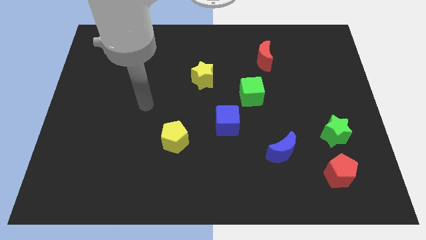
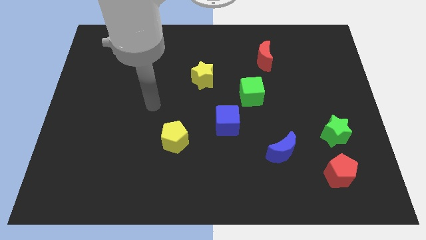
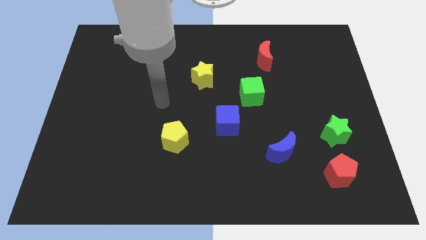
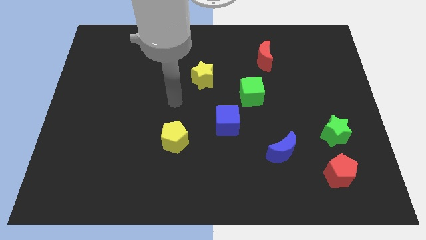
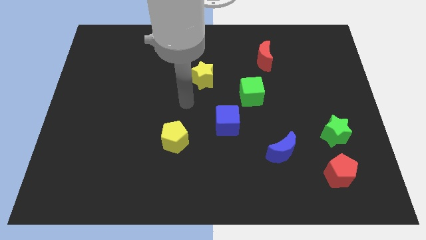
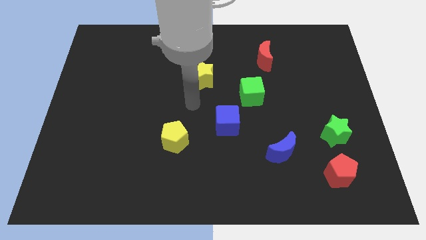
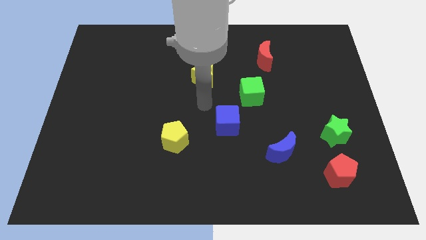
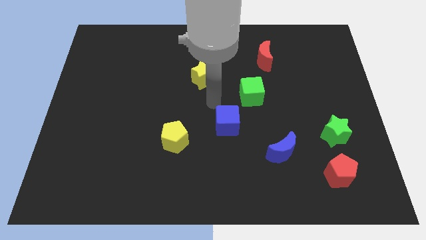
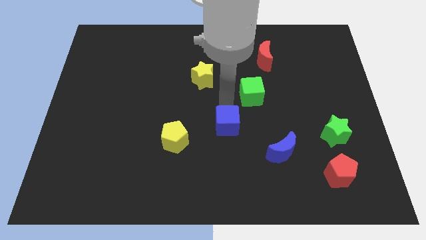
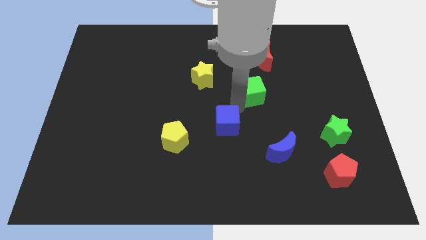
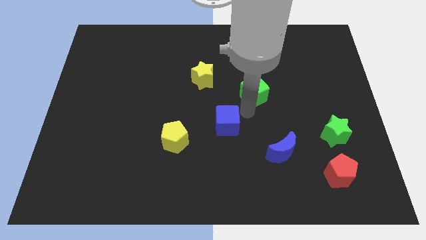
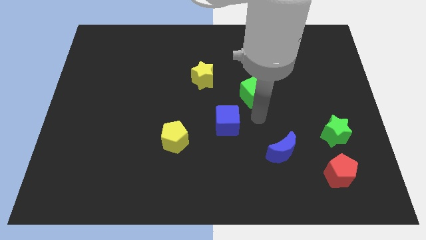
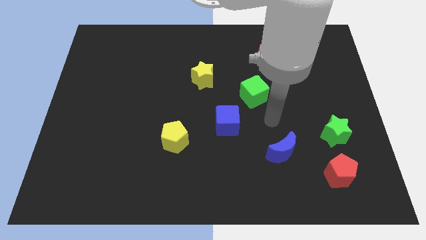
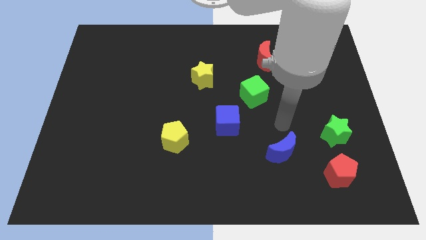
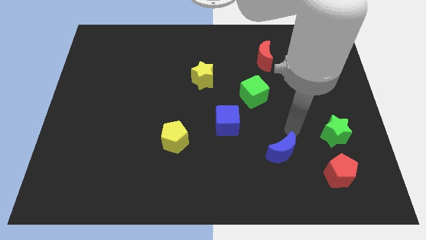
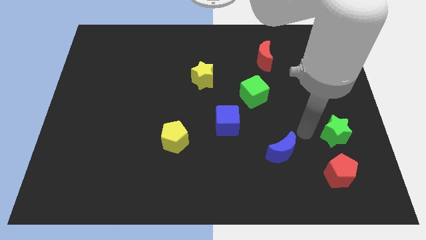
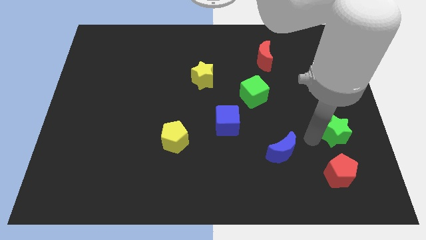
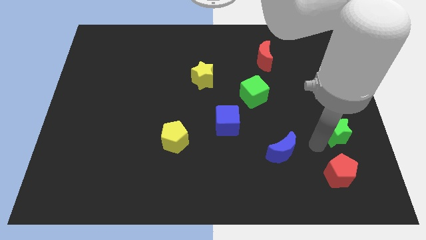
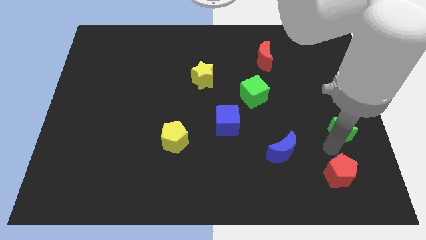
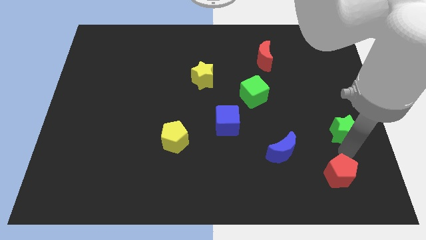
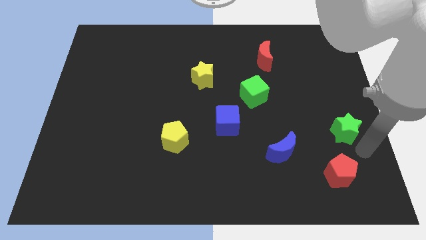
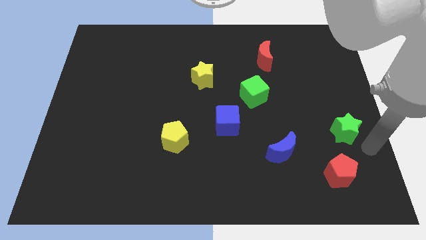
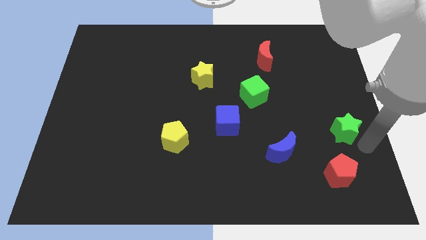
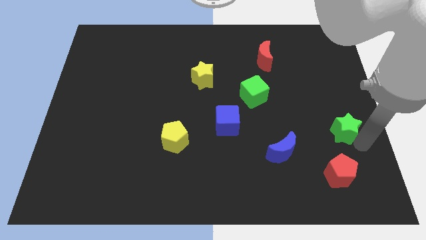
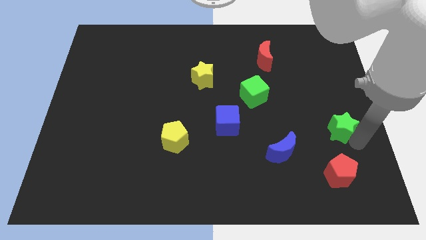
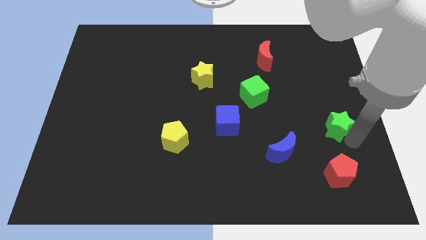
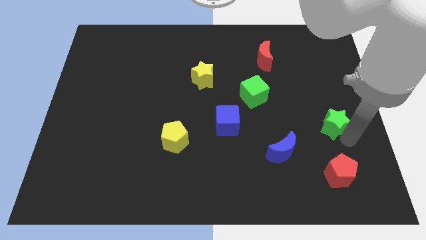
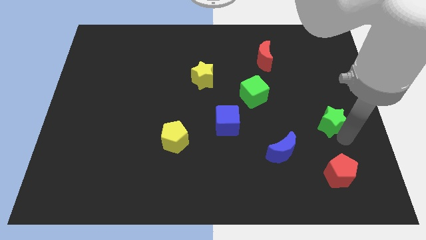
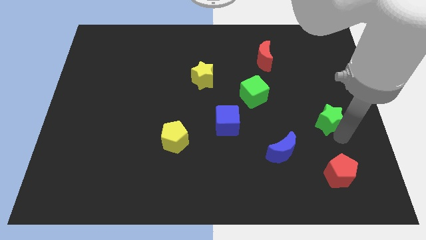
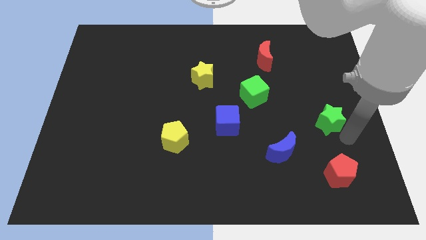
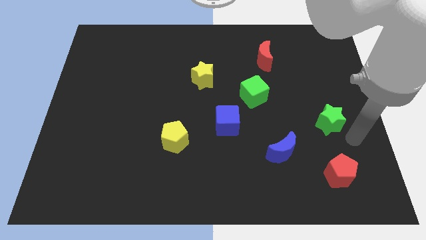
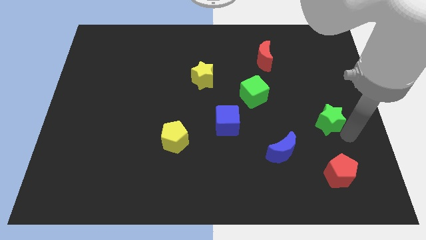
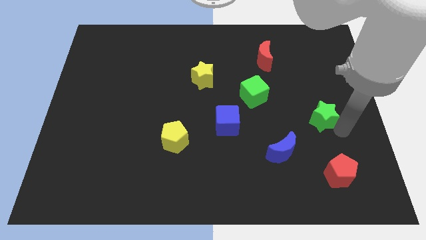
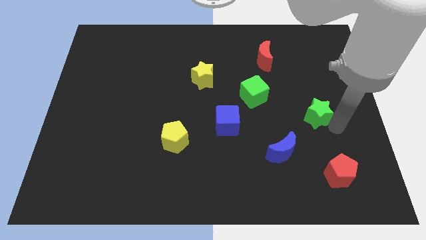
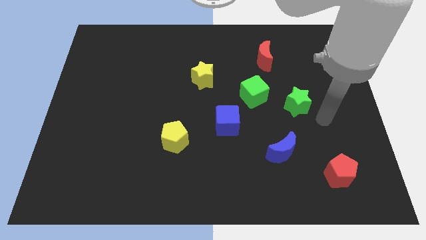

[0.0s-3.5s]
slightly move the green star diagonally up and left

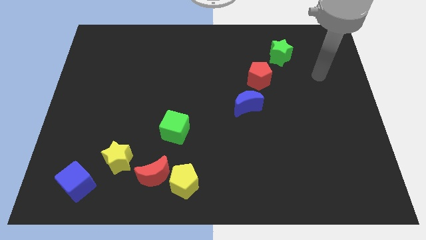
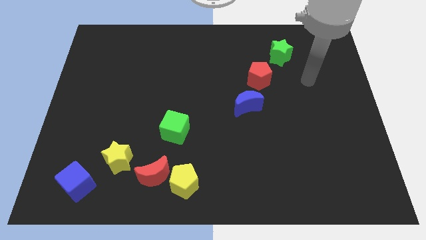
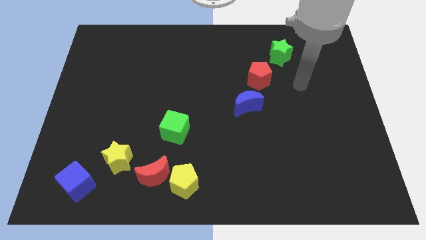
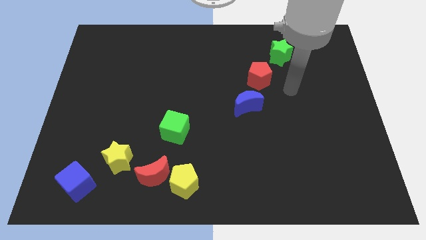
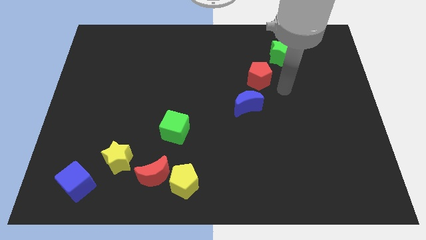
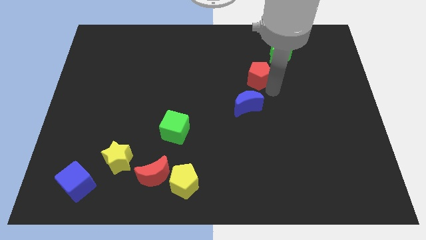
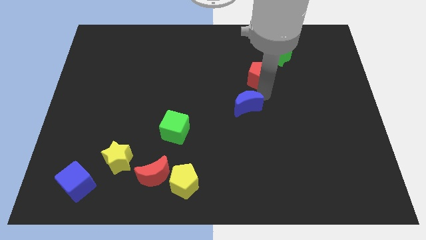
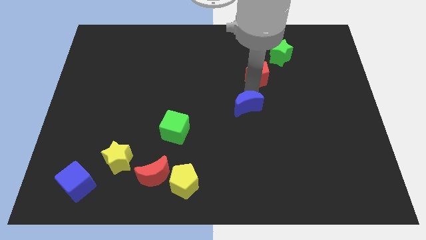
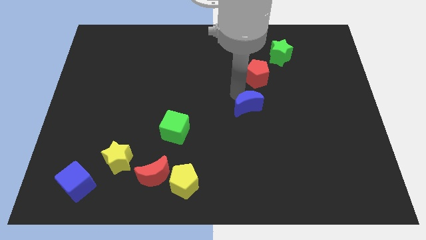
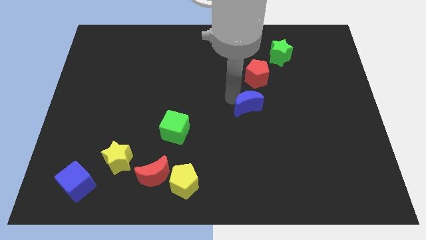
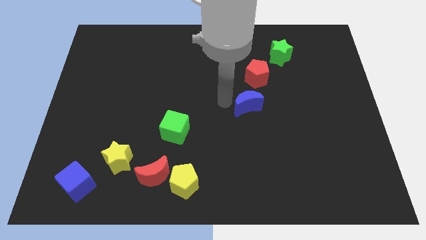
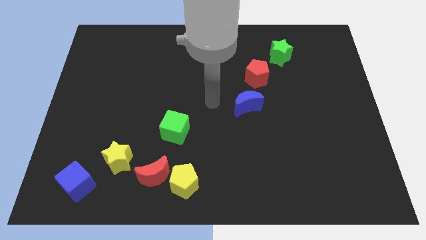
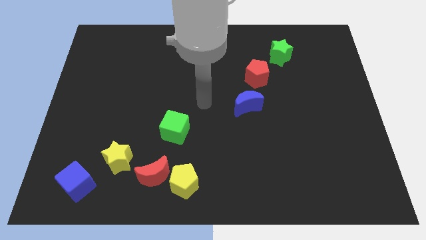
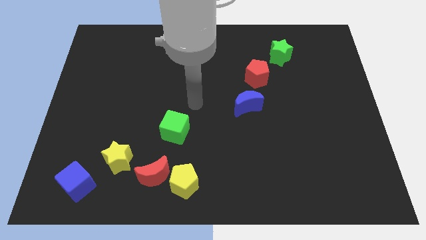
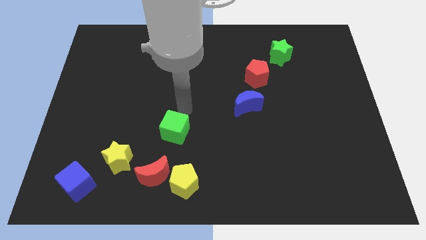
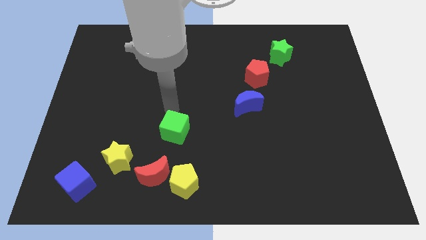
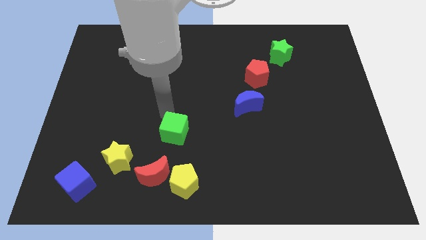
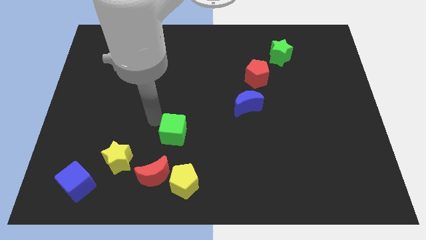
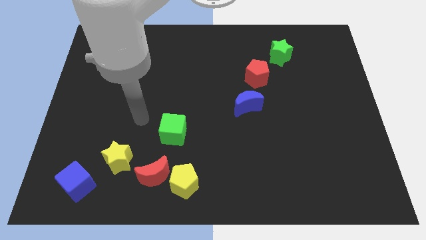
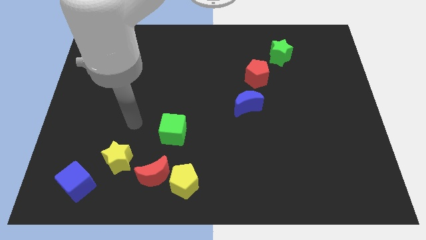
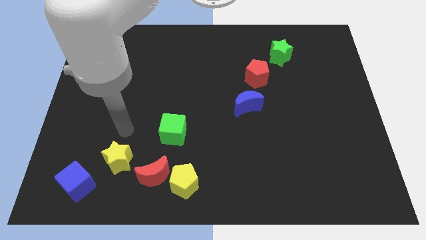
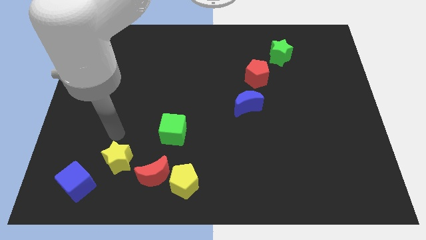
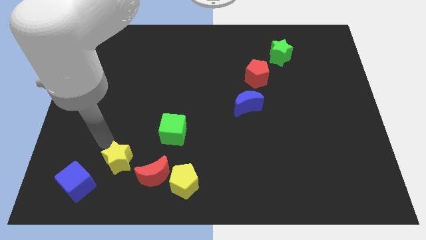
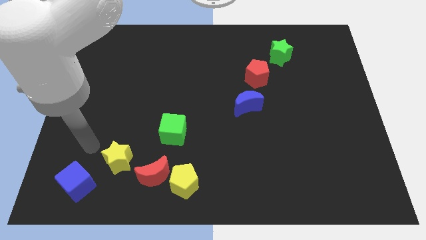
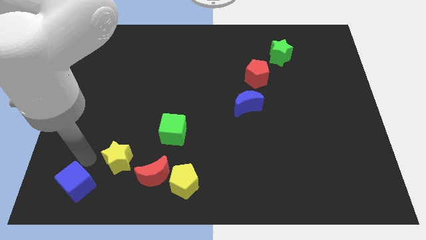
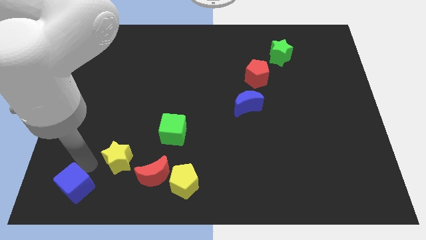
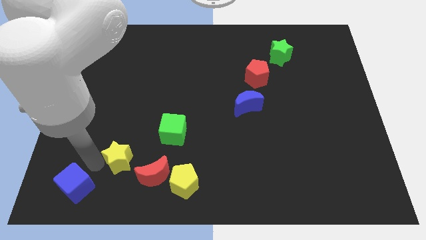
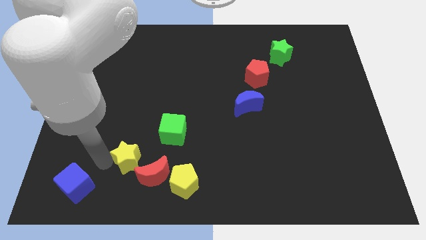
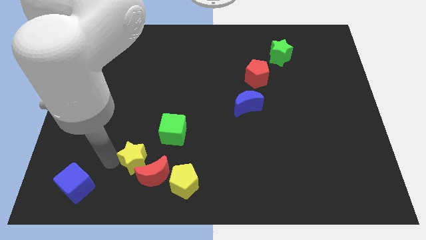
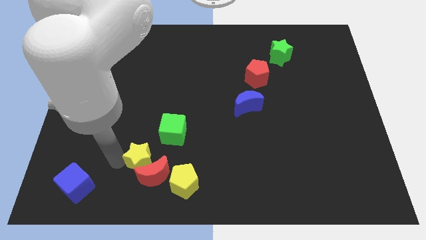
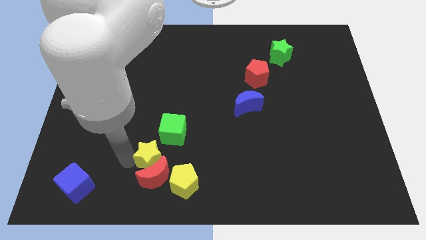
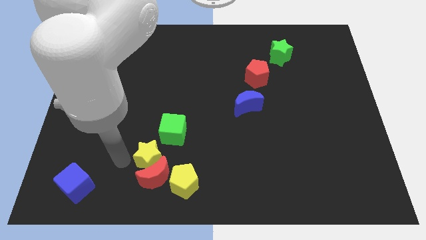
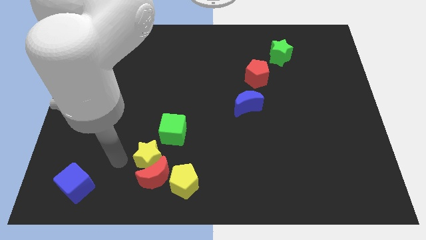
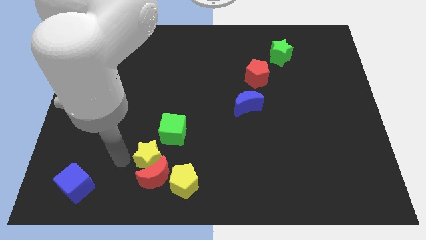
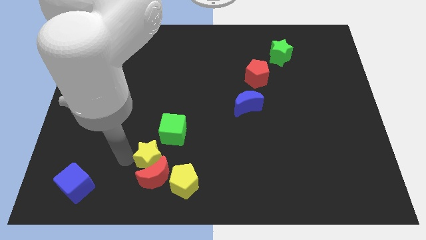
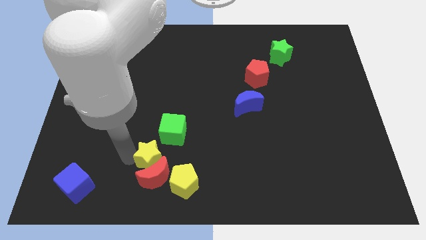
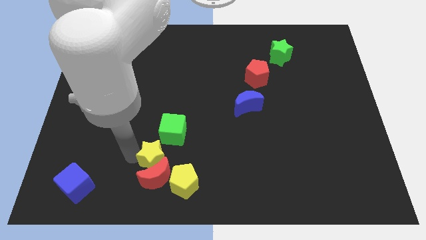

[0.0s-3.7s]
slide the yellow star somewhat right

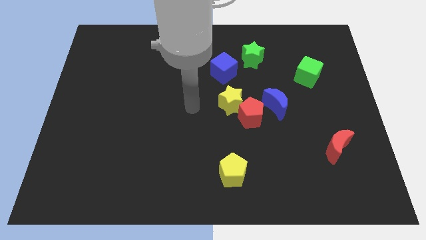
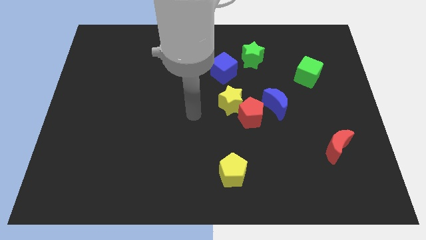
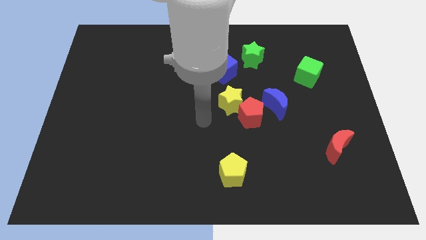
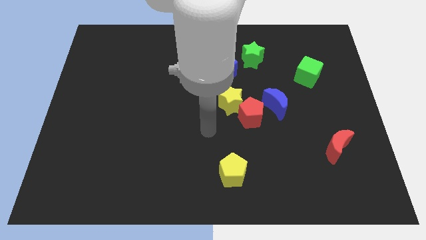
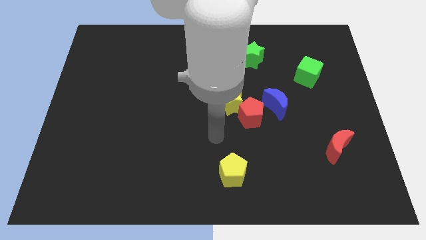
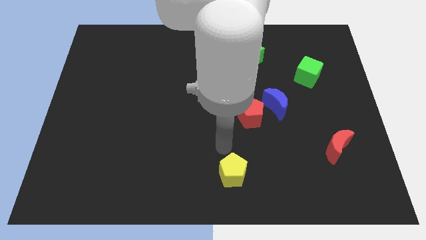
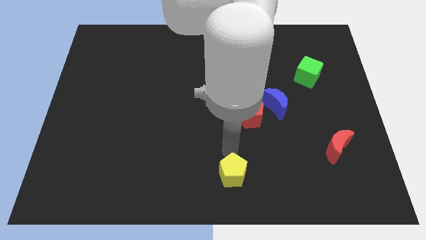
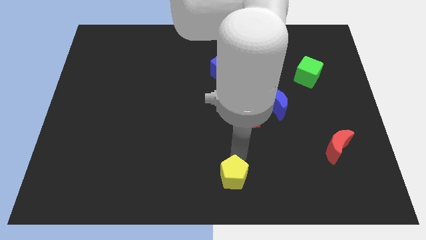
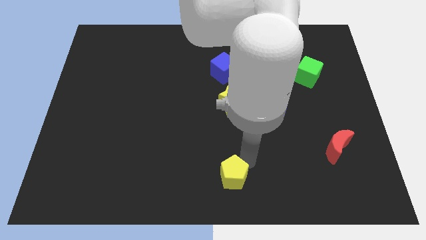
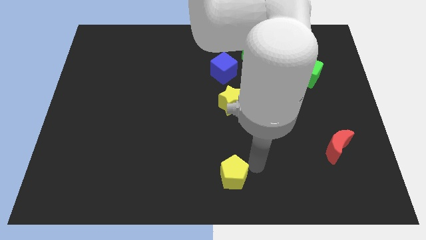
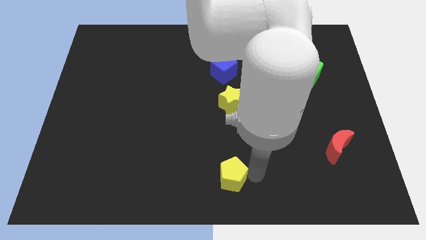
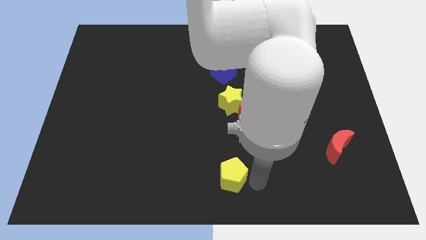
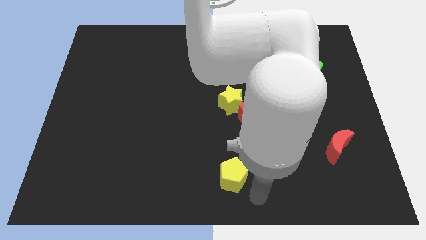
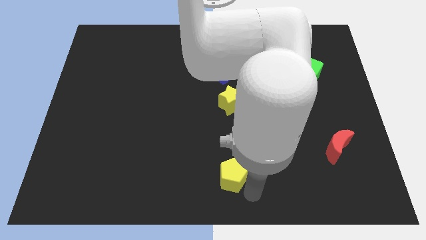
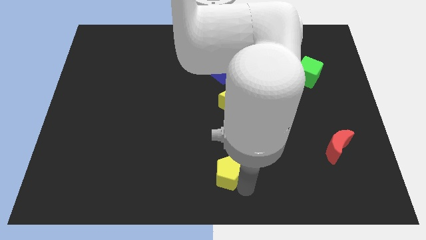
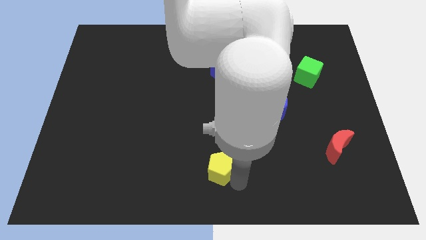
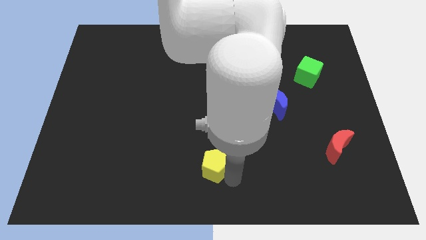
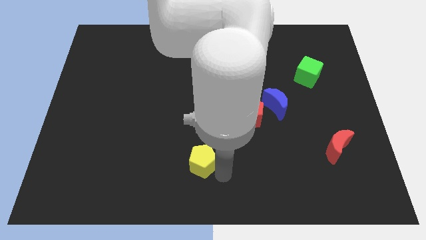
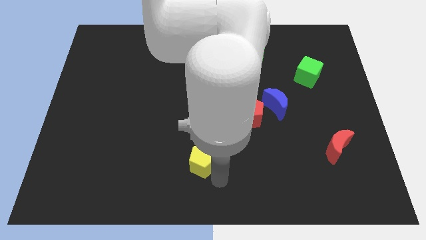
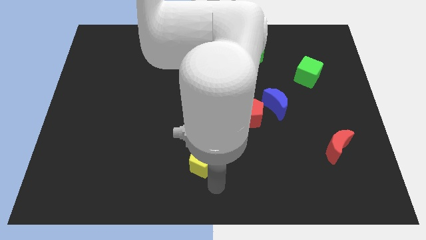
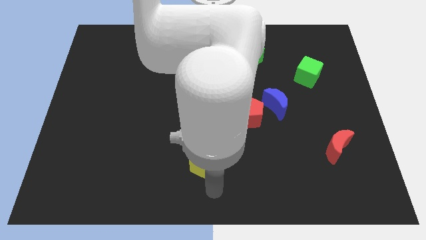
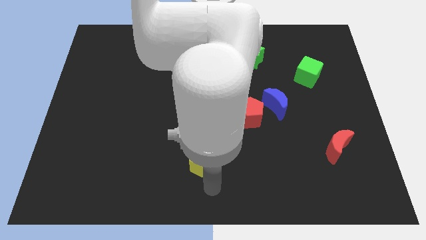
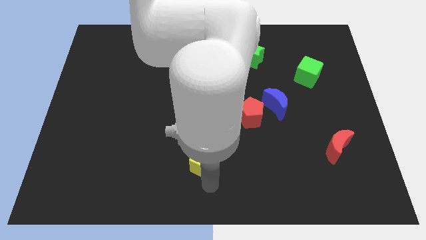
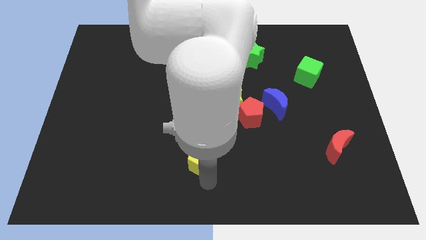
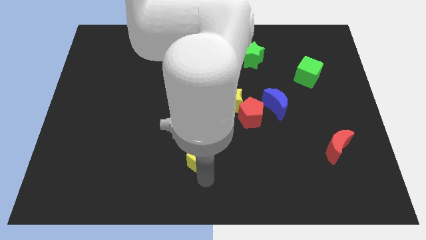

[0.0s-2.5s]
slightly slide the yellow pentagon upwards and left
